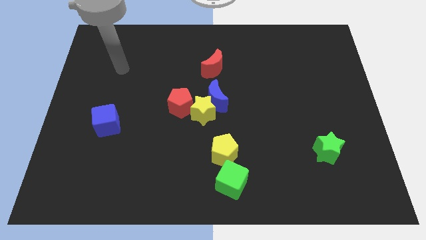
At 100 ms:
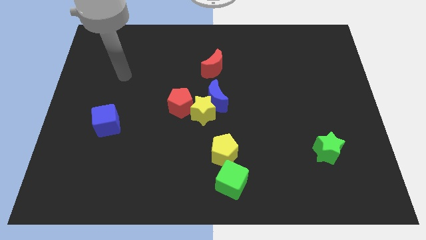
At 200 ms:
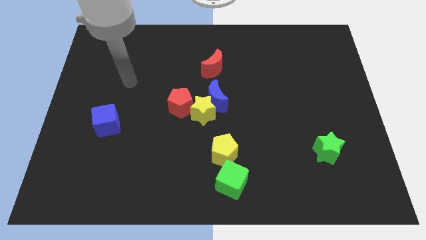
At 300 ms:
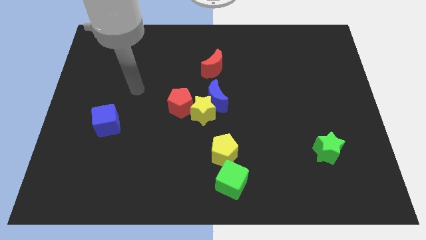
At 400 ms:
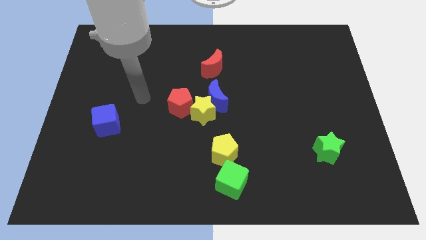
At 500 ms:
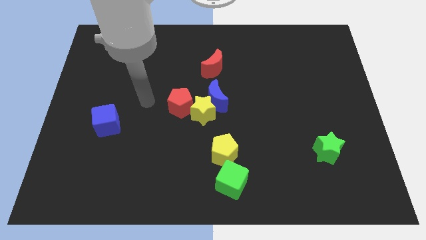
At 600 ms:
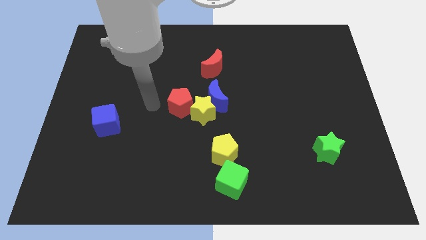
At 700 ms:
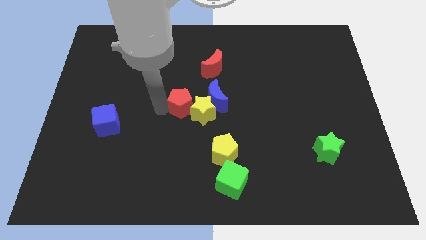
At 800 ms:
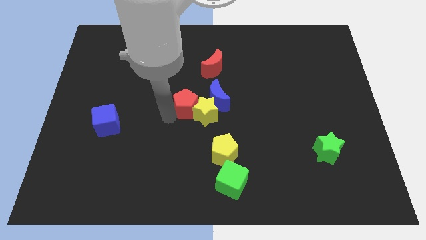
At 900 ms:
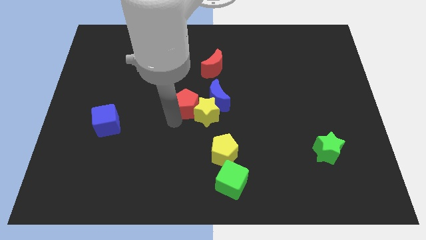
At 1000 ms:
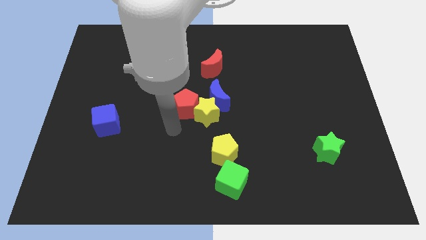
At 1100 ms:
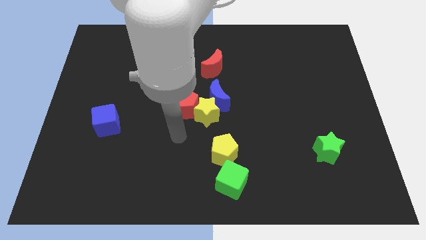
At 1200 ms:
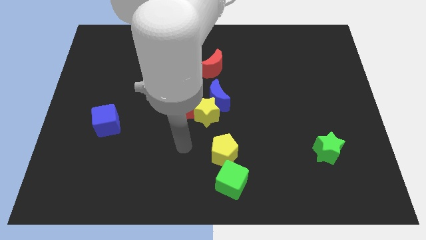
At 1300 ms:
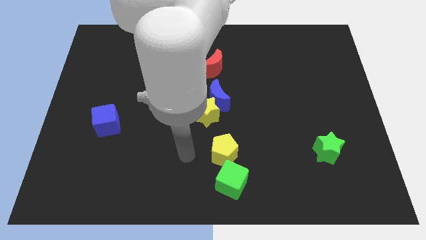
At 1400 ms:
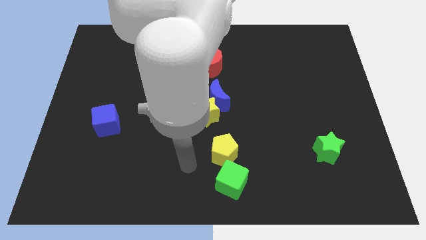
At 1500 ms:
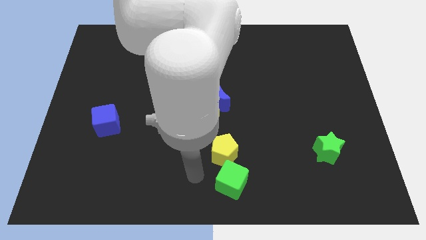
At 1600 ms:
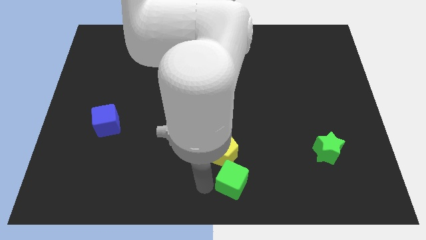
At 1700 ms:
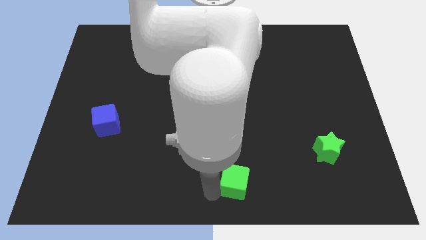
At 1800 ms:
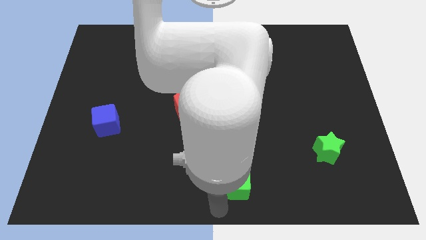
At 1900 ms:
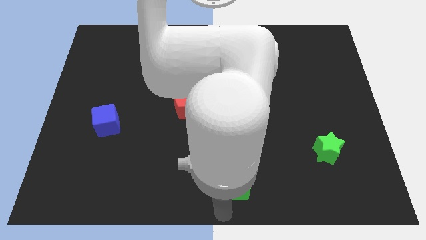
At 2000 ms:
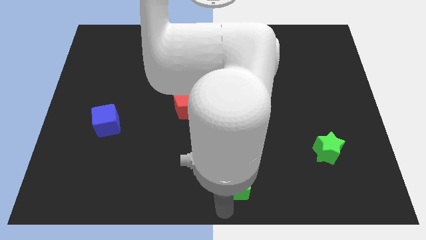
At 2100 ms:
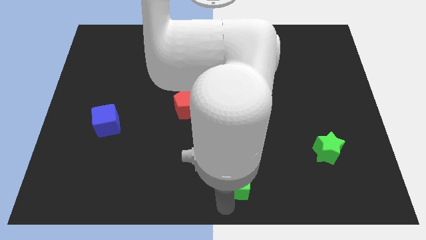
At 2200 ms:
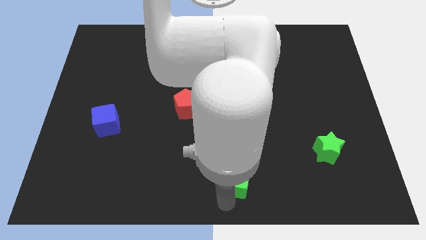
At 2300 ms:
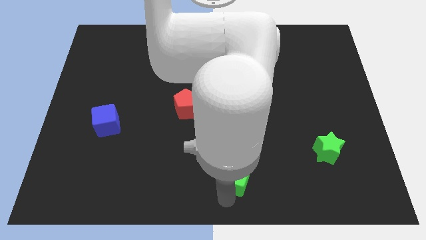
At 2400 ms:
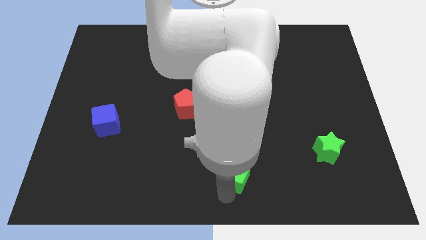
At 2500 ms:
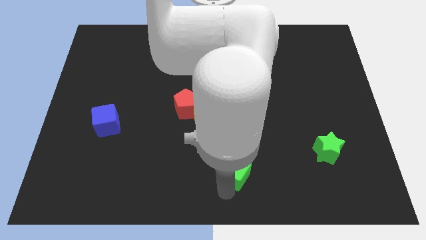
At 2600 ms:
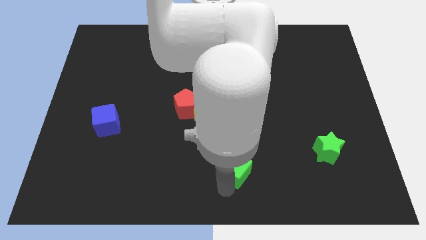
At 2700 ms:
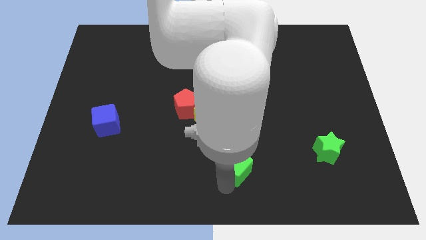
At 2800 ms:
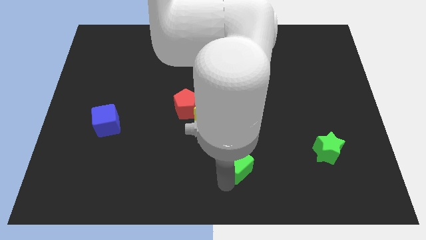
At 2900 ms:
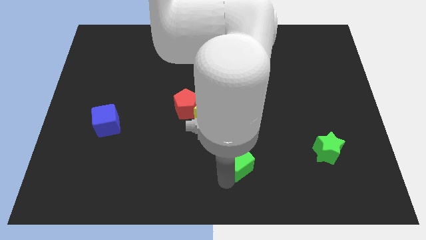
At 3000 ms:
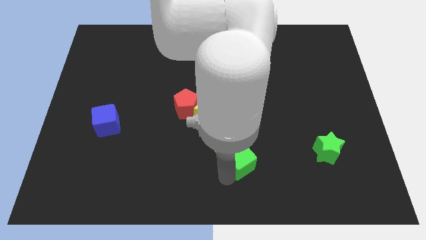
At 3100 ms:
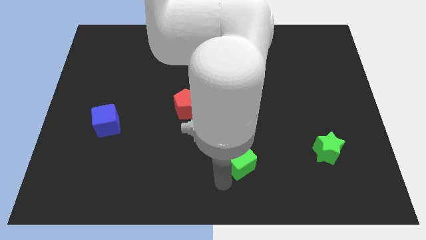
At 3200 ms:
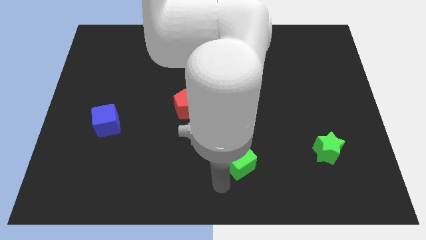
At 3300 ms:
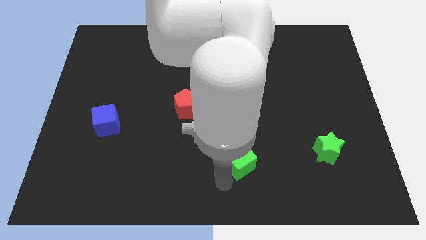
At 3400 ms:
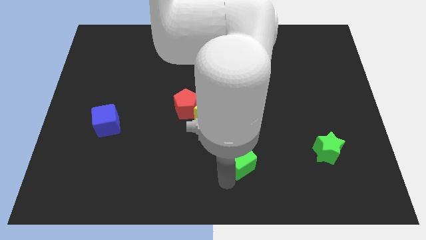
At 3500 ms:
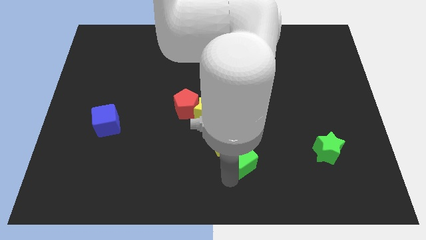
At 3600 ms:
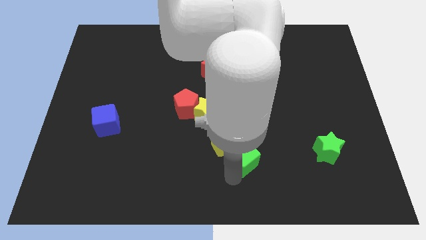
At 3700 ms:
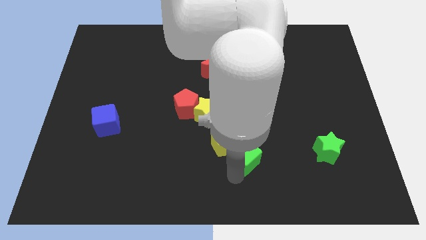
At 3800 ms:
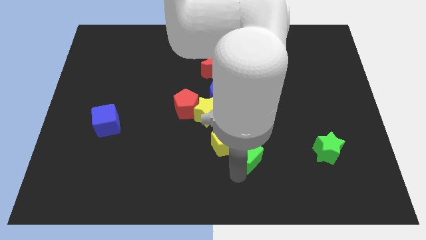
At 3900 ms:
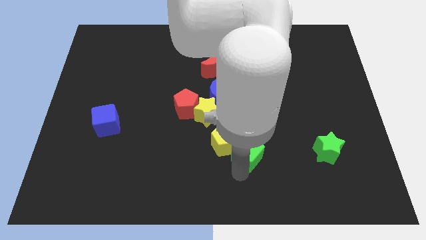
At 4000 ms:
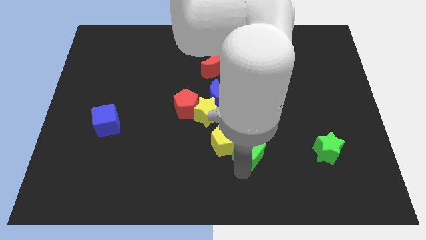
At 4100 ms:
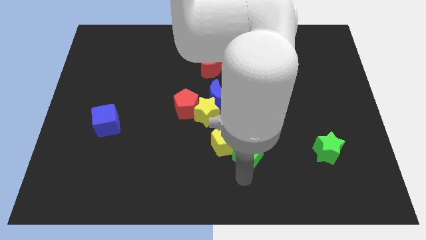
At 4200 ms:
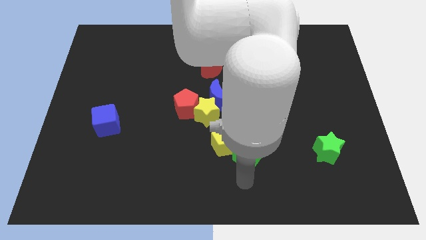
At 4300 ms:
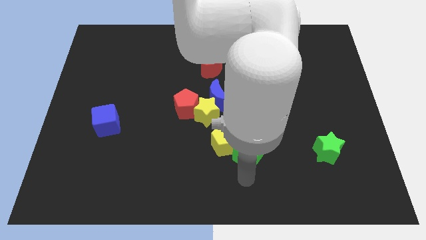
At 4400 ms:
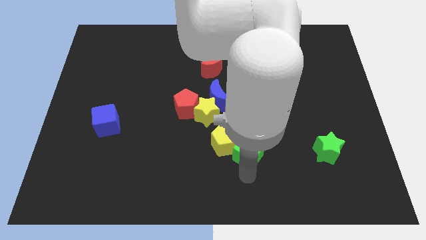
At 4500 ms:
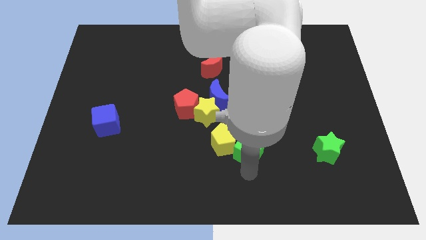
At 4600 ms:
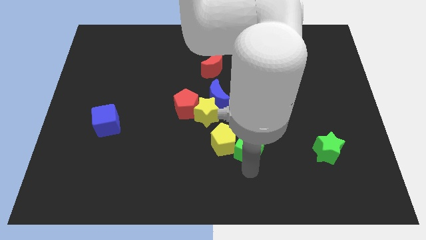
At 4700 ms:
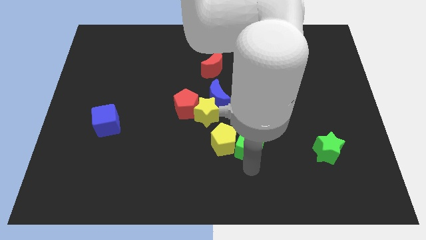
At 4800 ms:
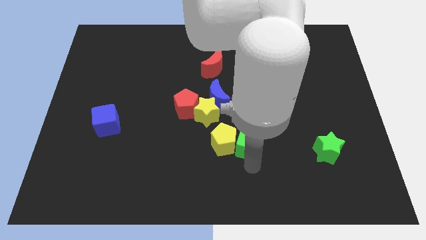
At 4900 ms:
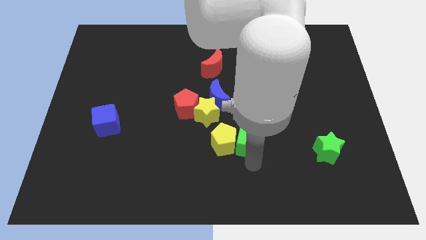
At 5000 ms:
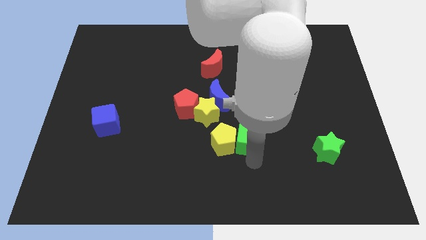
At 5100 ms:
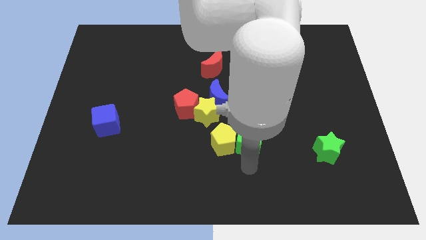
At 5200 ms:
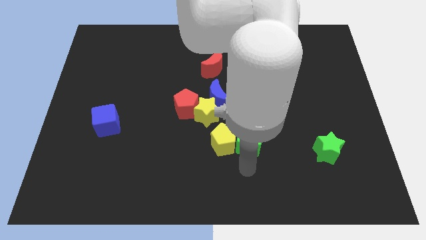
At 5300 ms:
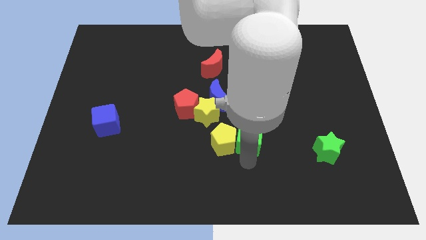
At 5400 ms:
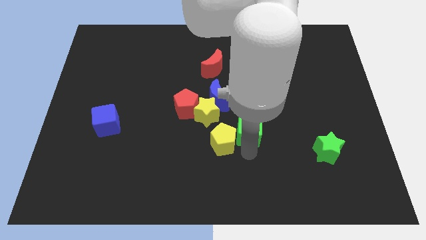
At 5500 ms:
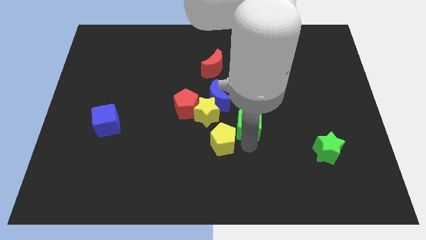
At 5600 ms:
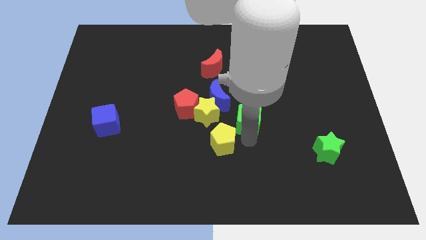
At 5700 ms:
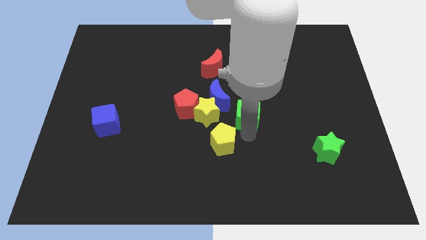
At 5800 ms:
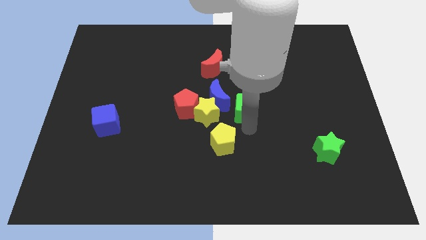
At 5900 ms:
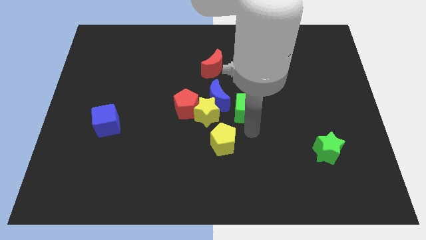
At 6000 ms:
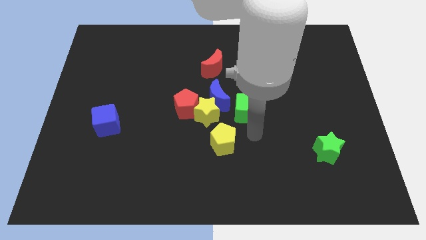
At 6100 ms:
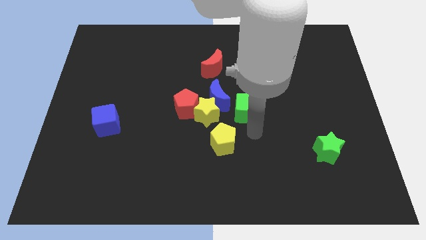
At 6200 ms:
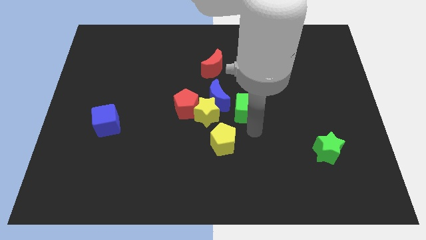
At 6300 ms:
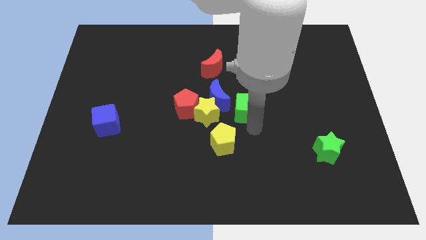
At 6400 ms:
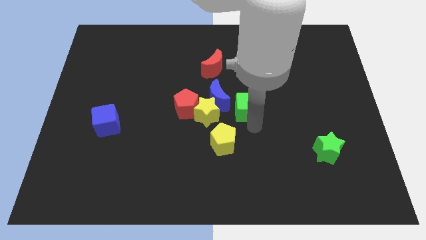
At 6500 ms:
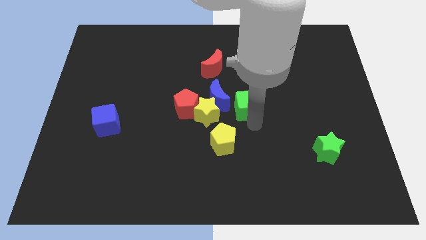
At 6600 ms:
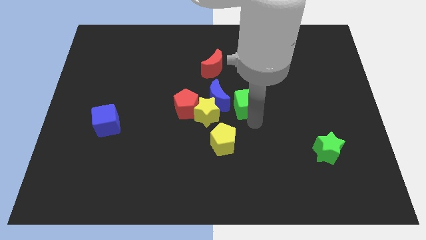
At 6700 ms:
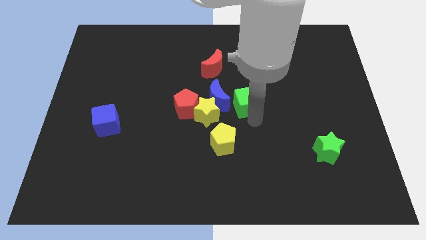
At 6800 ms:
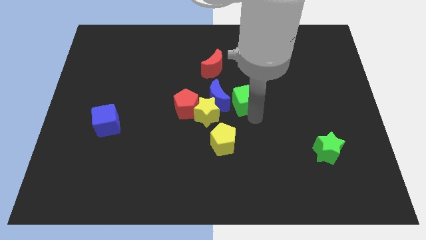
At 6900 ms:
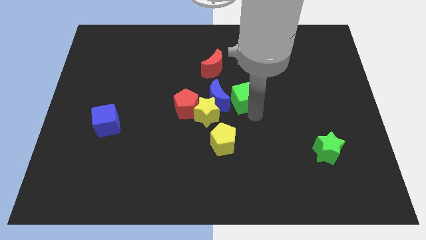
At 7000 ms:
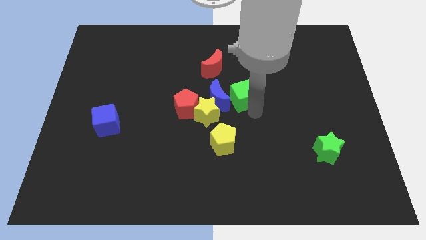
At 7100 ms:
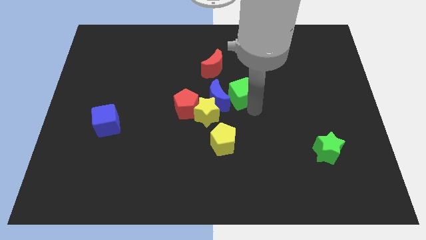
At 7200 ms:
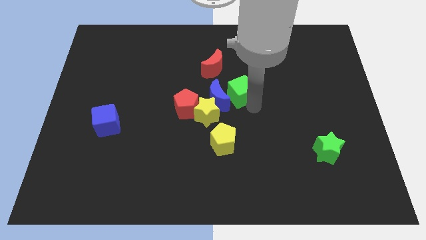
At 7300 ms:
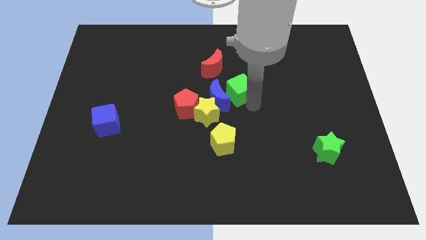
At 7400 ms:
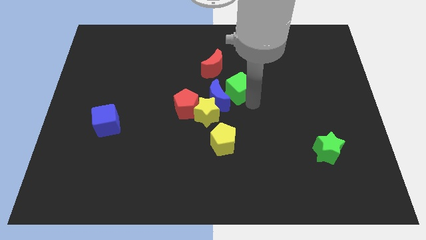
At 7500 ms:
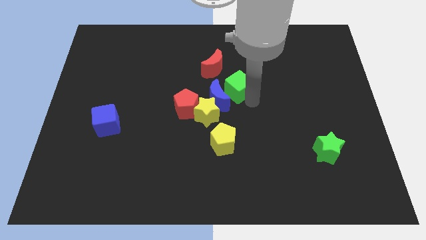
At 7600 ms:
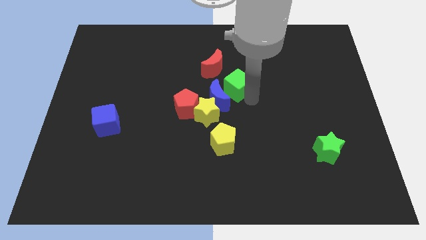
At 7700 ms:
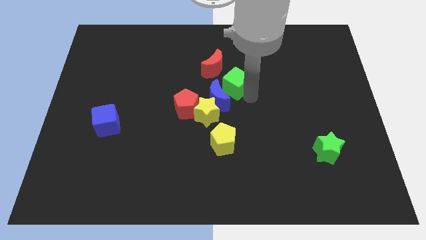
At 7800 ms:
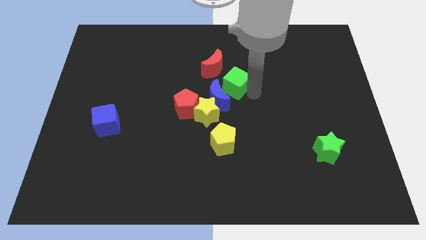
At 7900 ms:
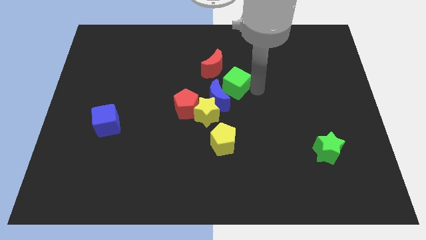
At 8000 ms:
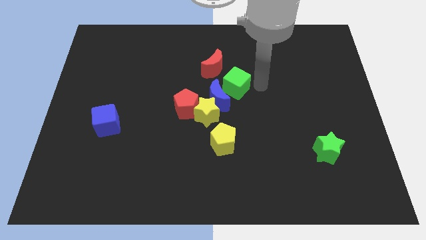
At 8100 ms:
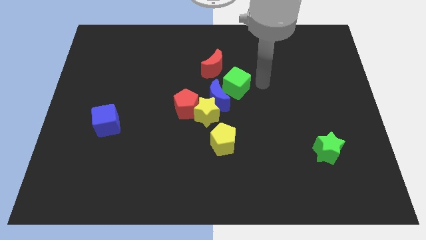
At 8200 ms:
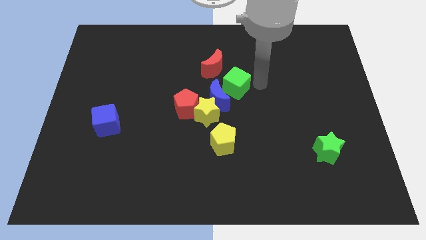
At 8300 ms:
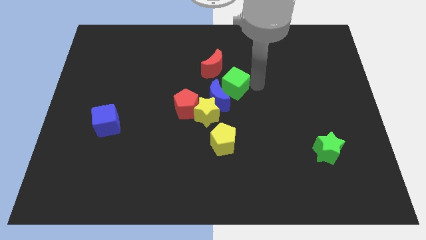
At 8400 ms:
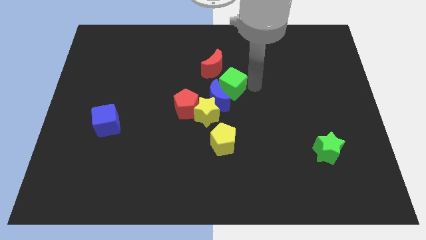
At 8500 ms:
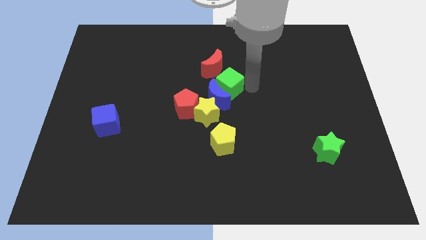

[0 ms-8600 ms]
slide the green cube to the top right side of the red pentagon
